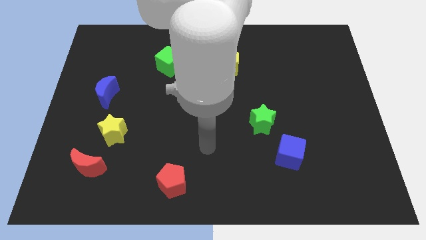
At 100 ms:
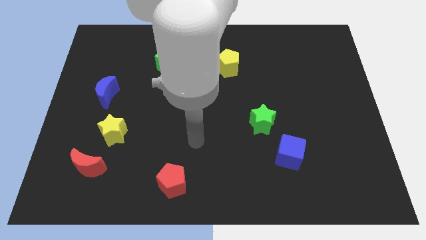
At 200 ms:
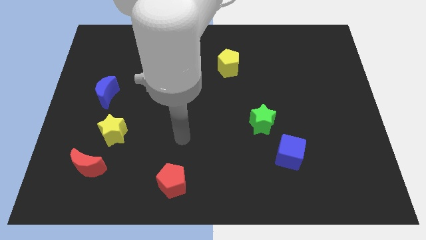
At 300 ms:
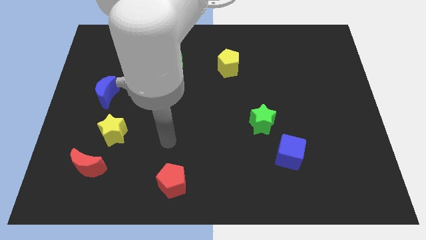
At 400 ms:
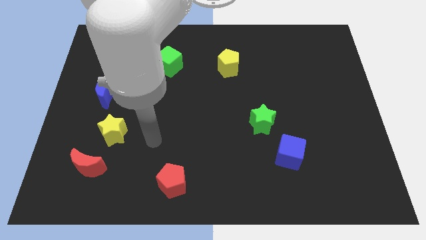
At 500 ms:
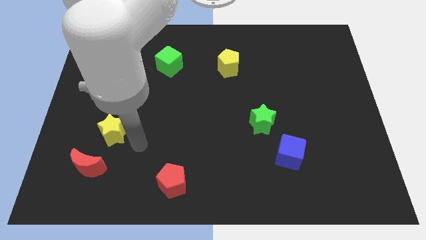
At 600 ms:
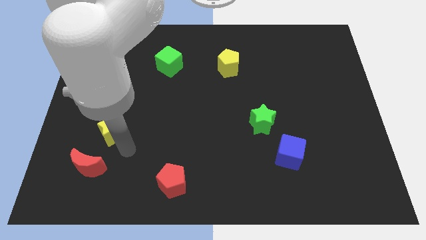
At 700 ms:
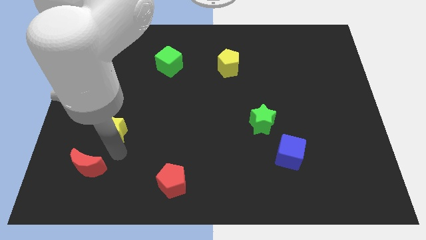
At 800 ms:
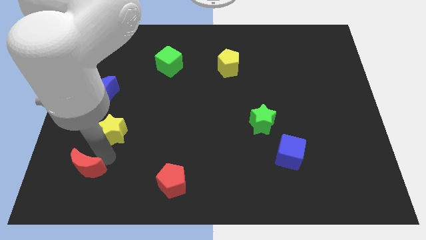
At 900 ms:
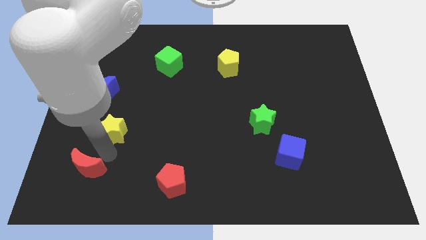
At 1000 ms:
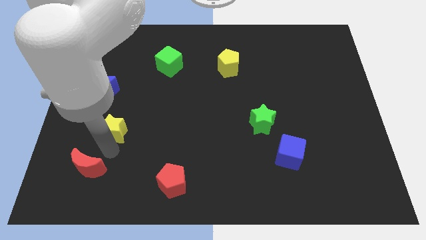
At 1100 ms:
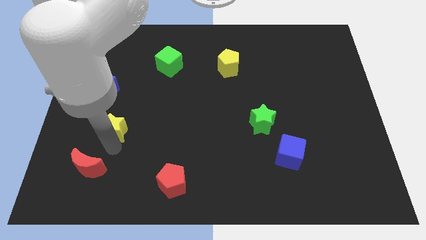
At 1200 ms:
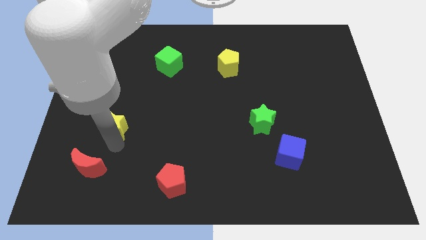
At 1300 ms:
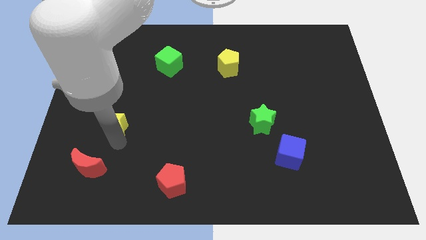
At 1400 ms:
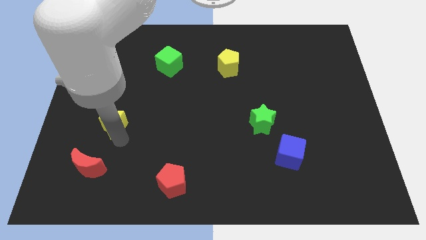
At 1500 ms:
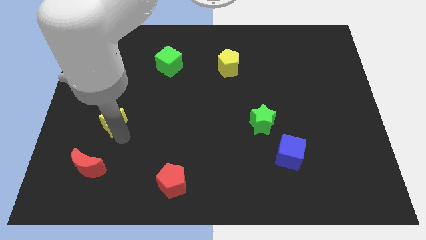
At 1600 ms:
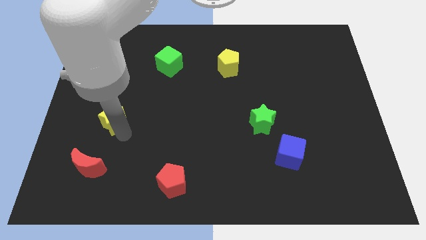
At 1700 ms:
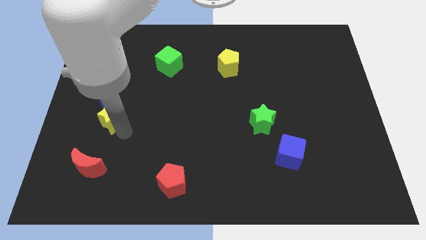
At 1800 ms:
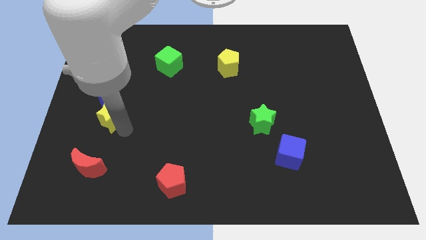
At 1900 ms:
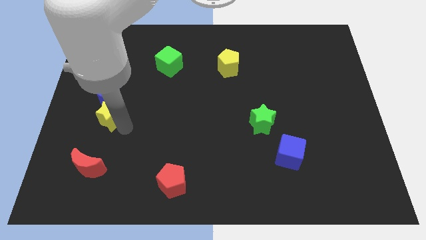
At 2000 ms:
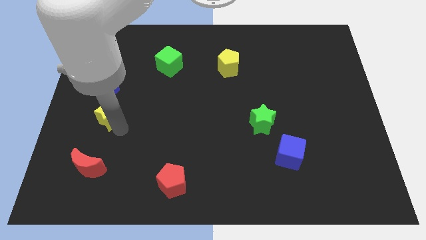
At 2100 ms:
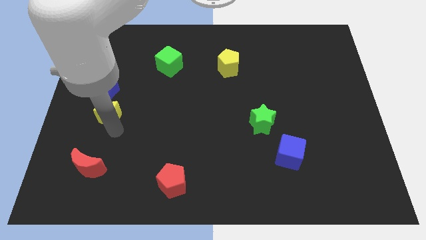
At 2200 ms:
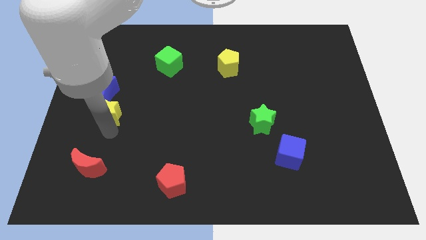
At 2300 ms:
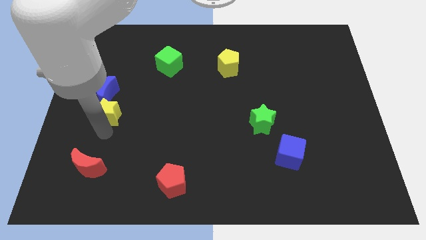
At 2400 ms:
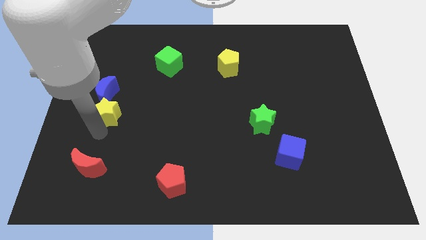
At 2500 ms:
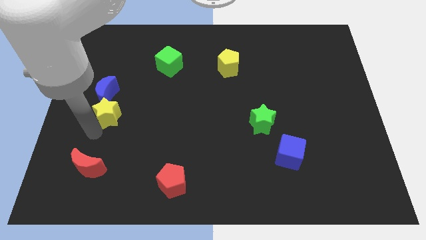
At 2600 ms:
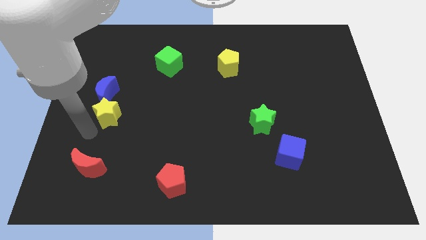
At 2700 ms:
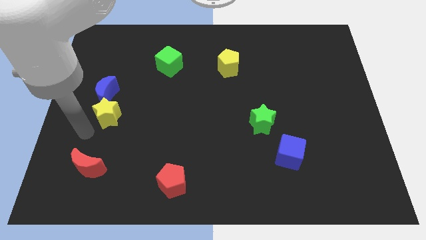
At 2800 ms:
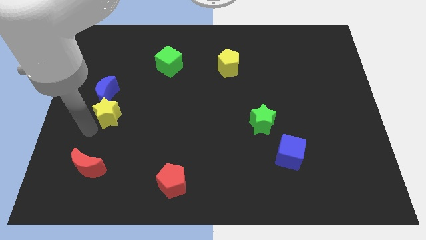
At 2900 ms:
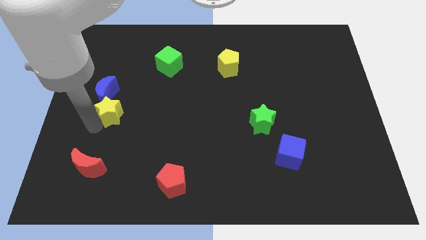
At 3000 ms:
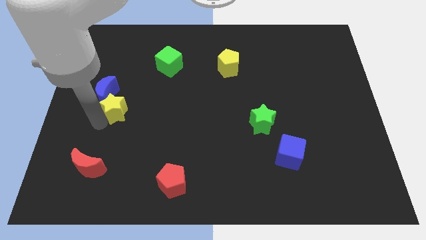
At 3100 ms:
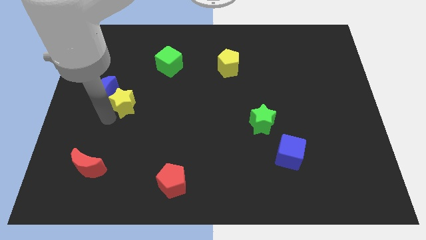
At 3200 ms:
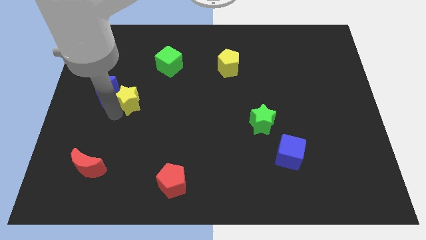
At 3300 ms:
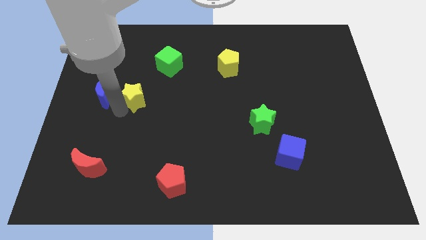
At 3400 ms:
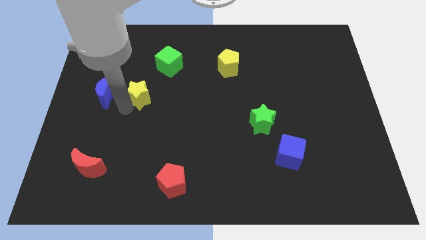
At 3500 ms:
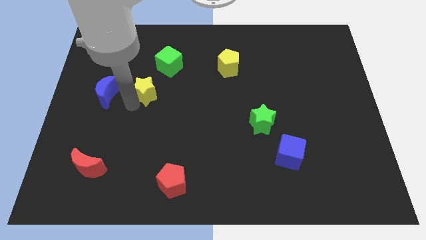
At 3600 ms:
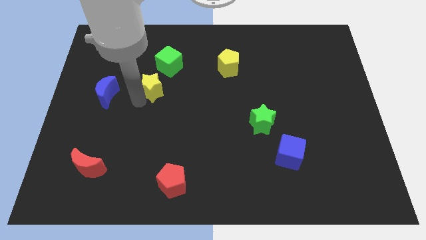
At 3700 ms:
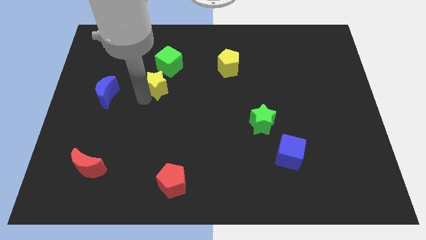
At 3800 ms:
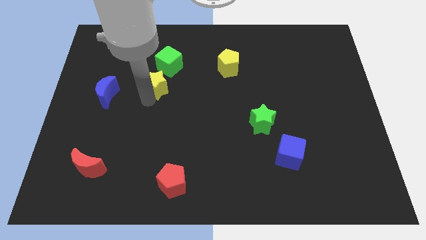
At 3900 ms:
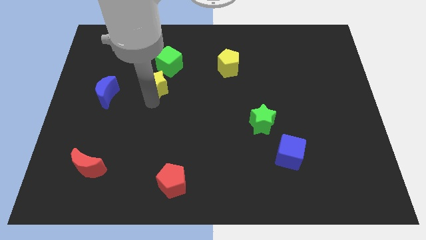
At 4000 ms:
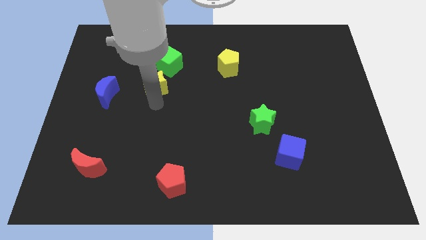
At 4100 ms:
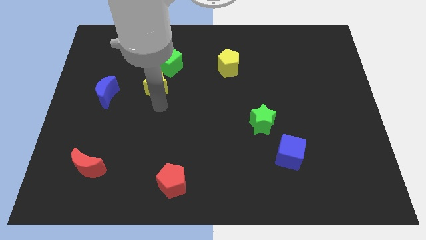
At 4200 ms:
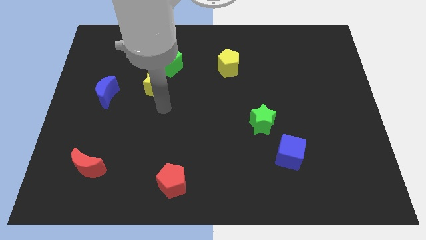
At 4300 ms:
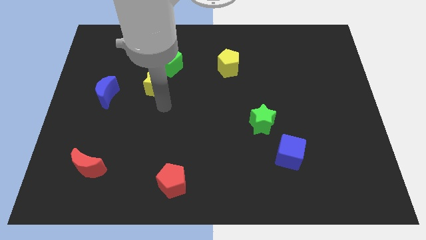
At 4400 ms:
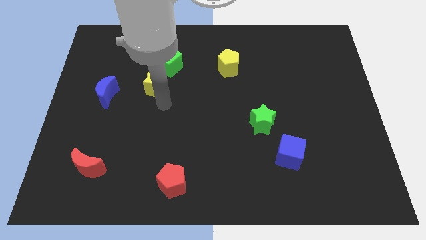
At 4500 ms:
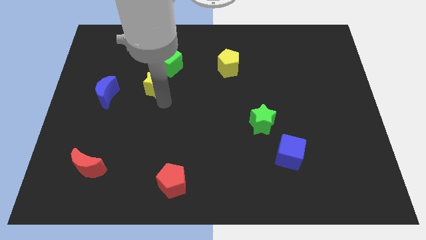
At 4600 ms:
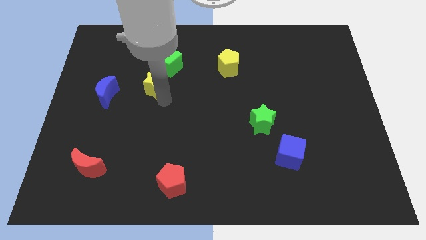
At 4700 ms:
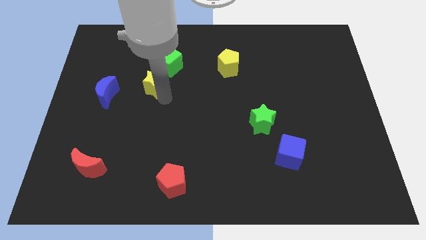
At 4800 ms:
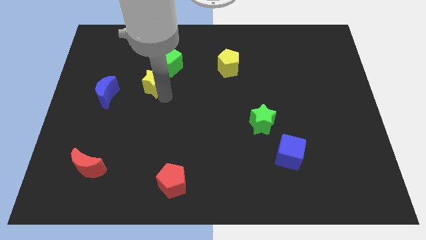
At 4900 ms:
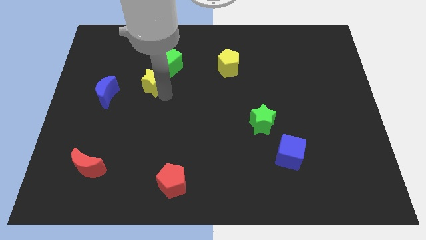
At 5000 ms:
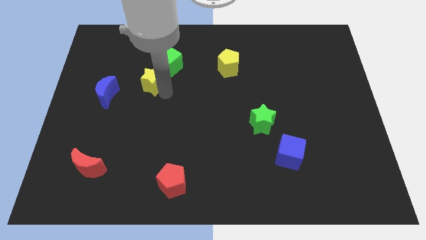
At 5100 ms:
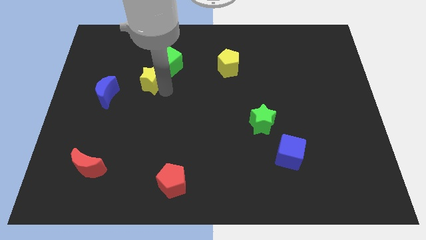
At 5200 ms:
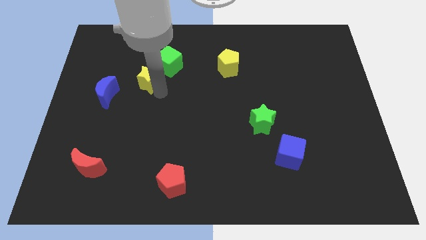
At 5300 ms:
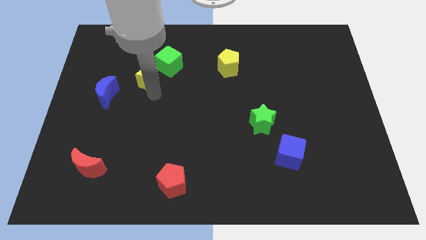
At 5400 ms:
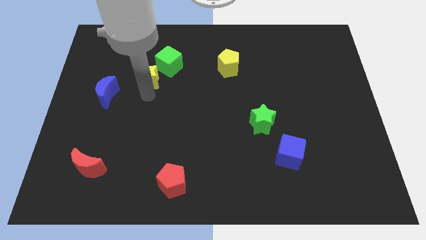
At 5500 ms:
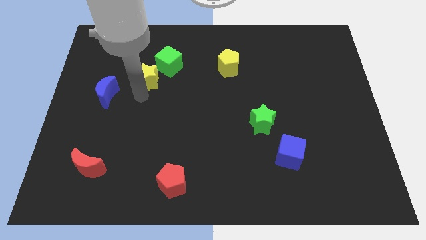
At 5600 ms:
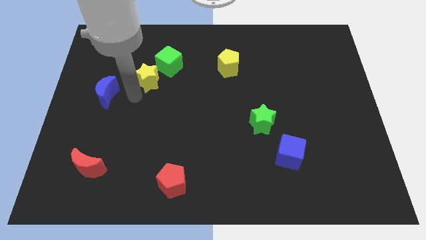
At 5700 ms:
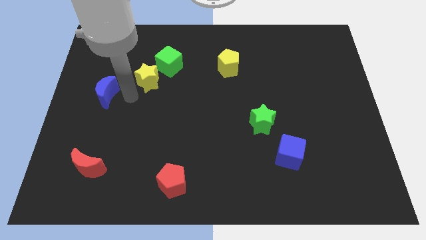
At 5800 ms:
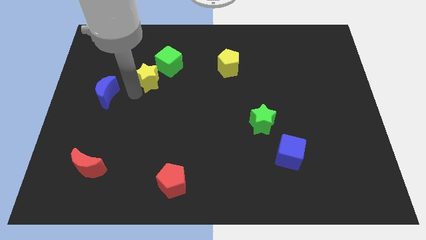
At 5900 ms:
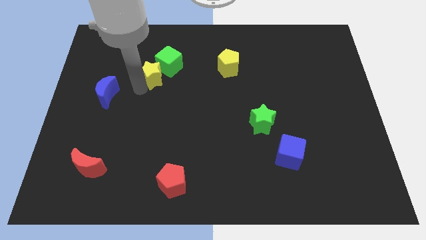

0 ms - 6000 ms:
push the yellow star to the green cube

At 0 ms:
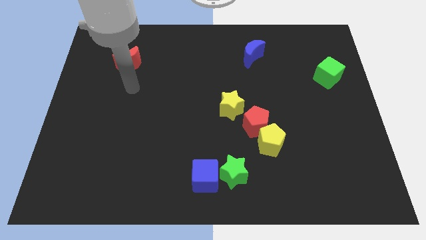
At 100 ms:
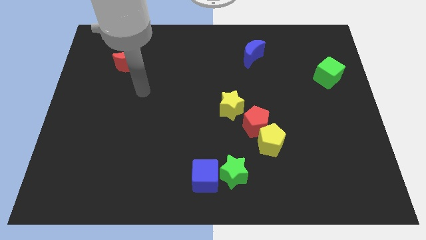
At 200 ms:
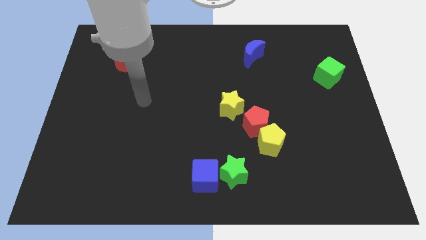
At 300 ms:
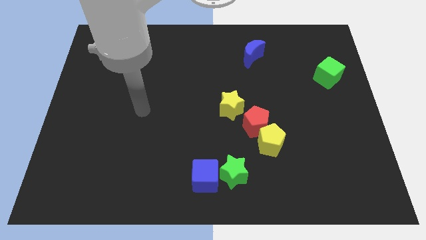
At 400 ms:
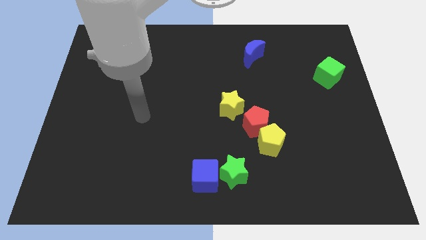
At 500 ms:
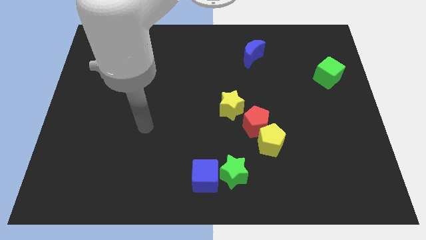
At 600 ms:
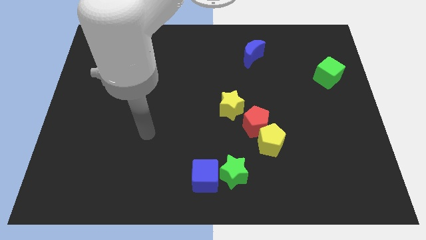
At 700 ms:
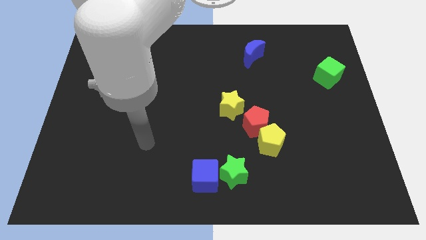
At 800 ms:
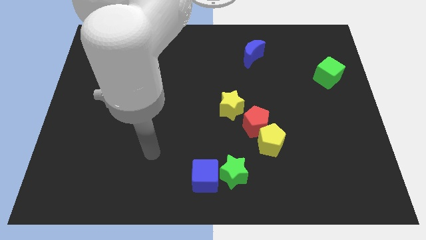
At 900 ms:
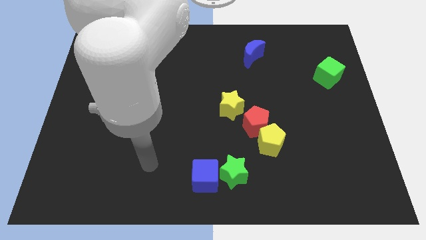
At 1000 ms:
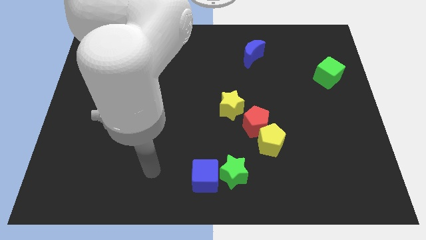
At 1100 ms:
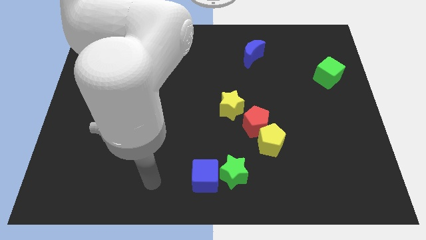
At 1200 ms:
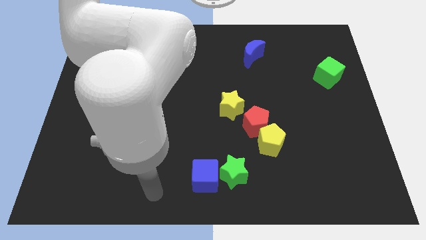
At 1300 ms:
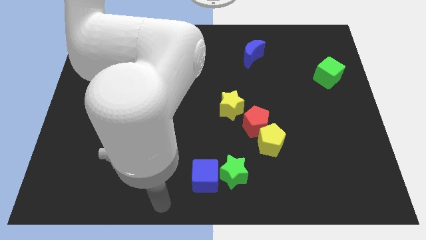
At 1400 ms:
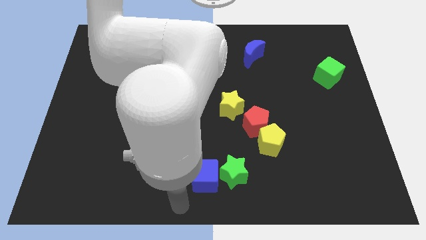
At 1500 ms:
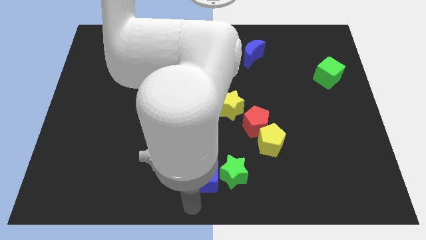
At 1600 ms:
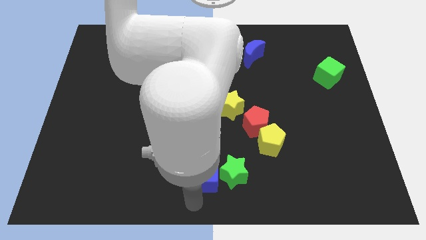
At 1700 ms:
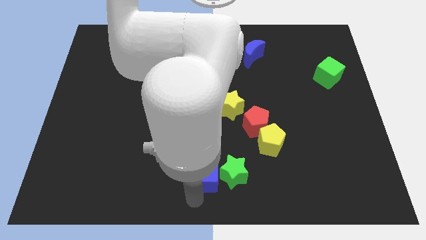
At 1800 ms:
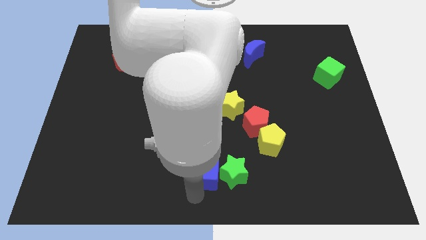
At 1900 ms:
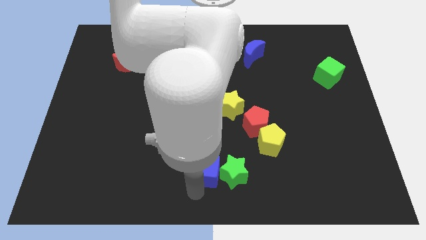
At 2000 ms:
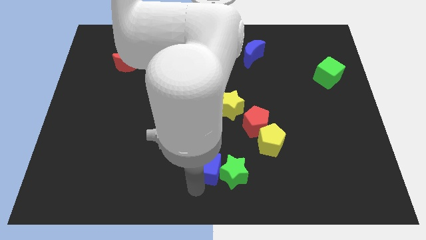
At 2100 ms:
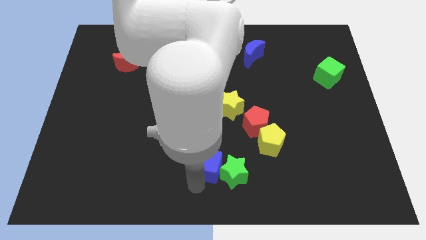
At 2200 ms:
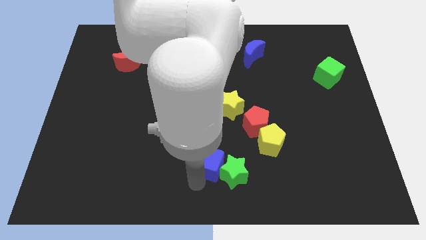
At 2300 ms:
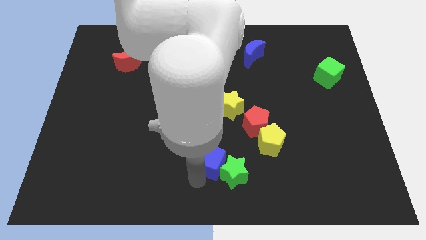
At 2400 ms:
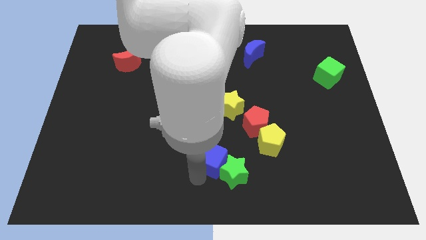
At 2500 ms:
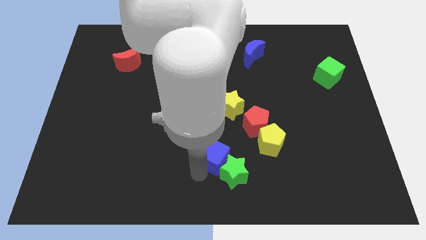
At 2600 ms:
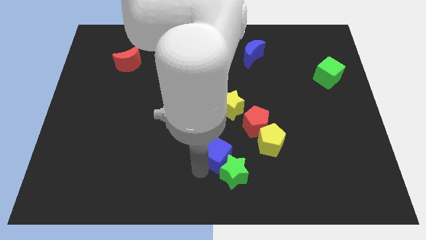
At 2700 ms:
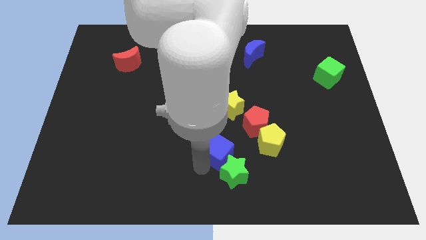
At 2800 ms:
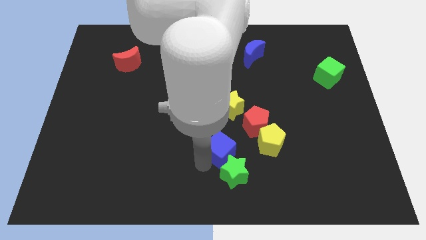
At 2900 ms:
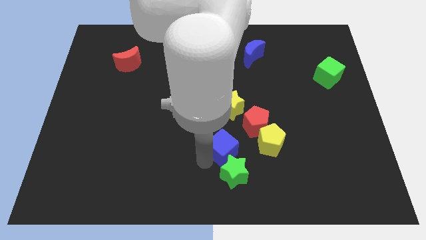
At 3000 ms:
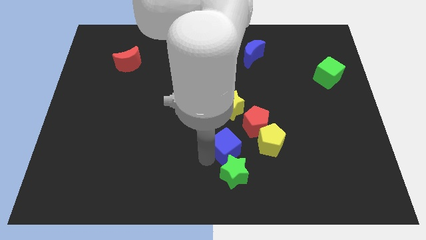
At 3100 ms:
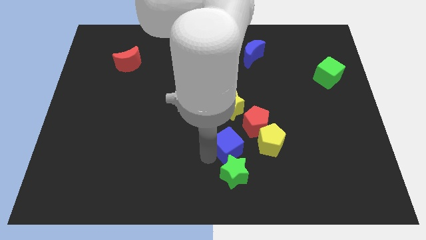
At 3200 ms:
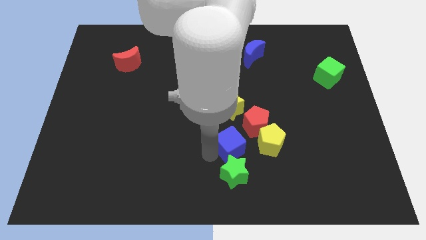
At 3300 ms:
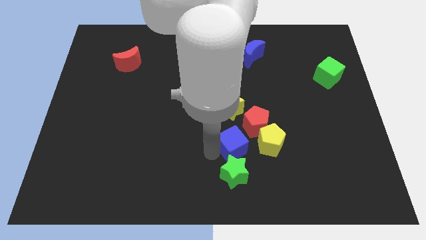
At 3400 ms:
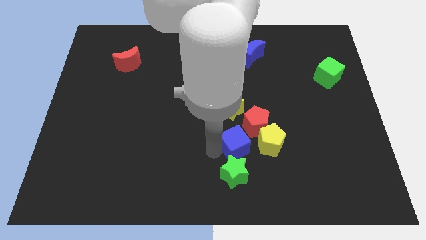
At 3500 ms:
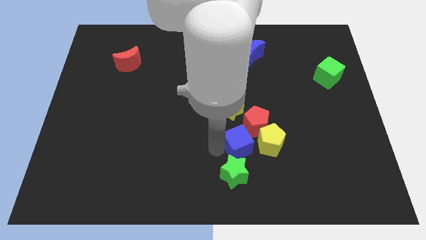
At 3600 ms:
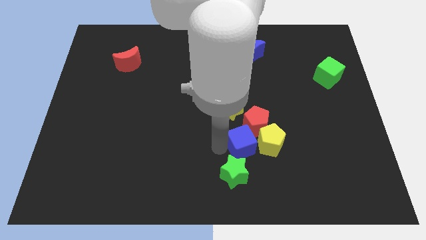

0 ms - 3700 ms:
push the blue cube next to the yellow pentagon
